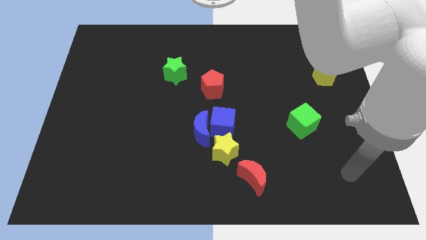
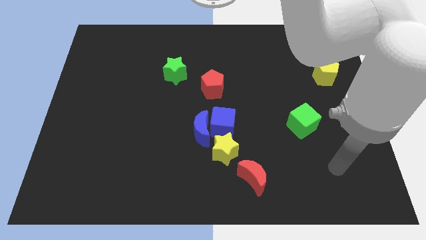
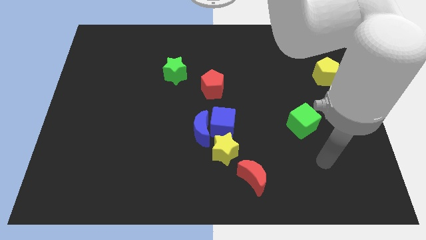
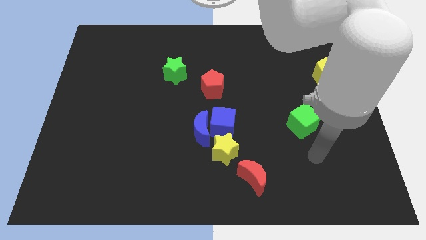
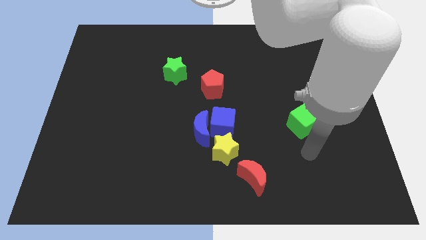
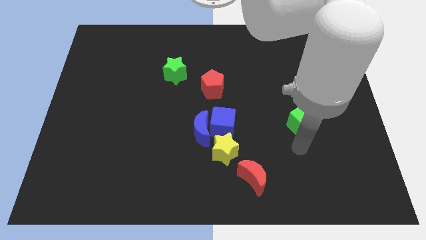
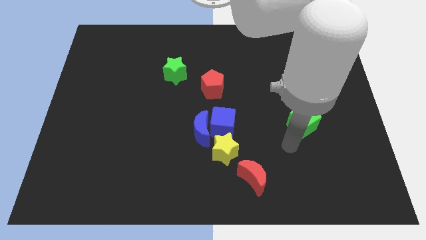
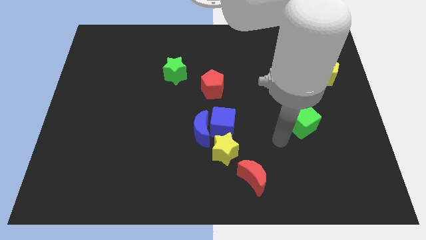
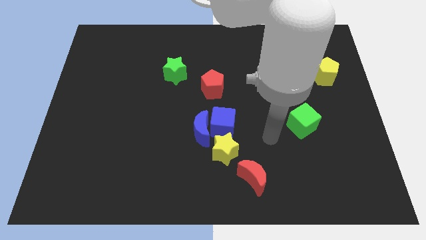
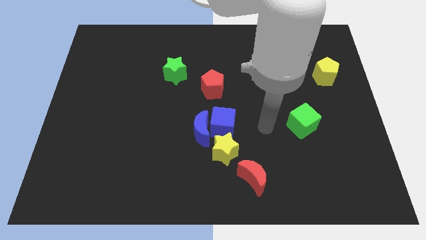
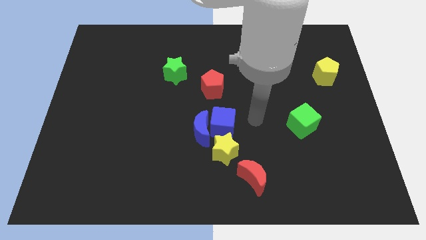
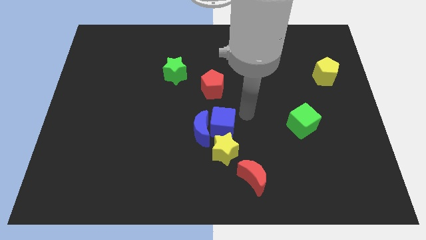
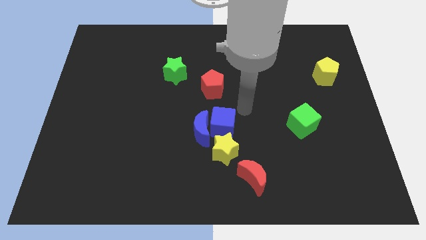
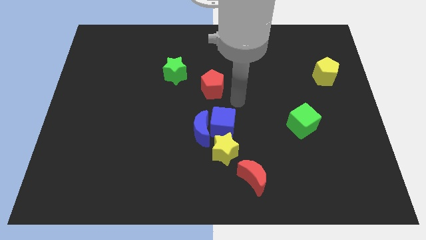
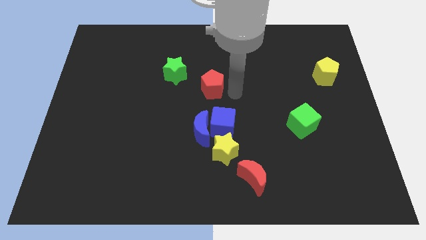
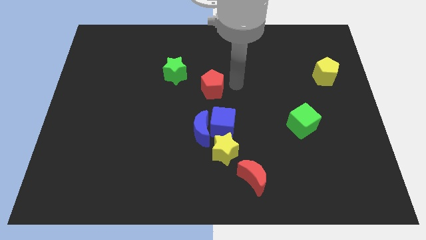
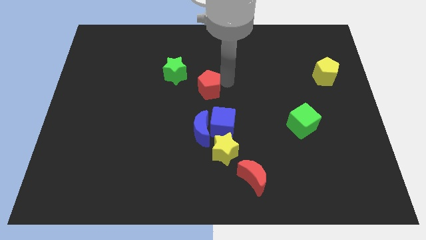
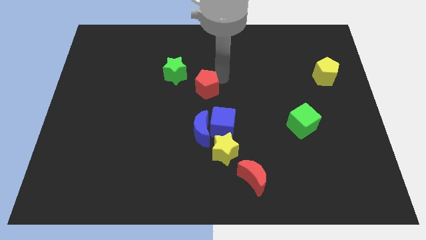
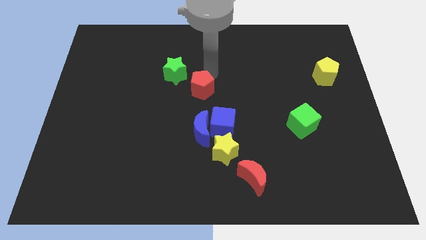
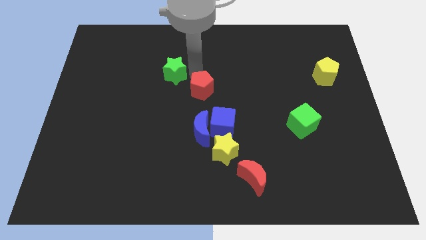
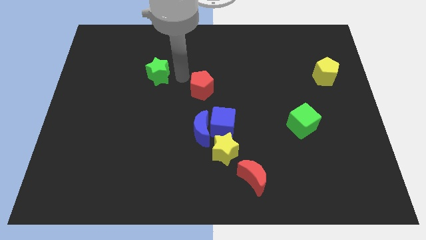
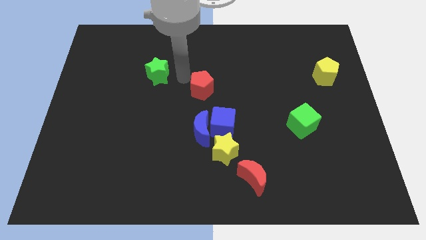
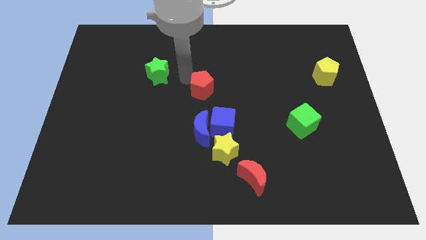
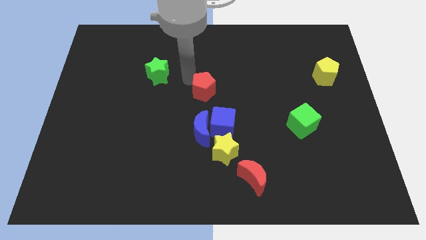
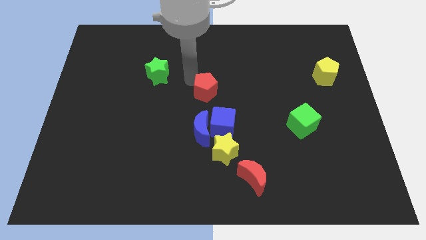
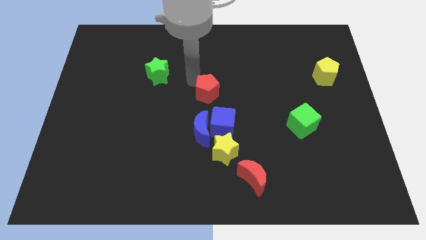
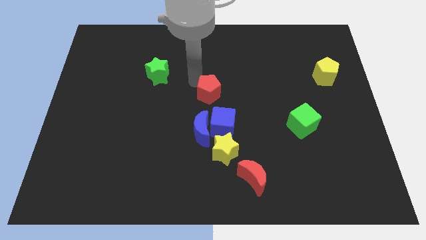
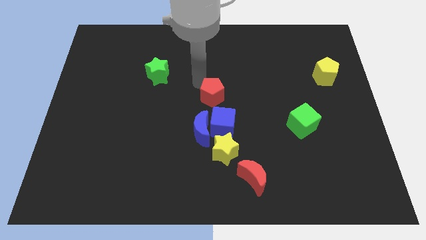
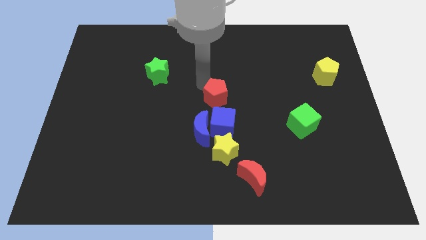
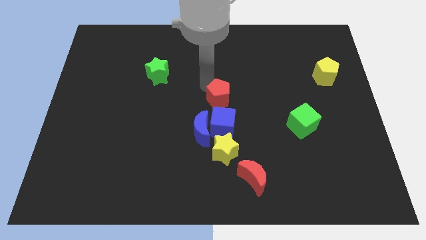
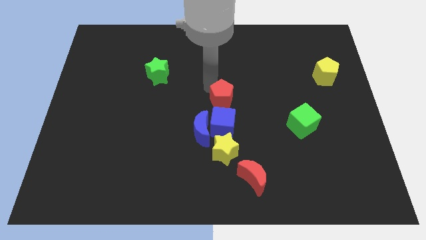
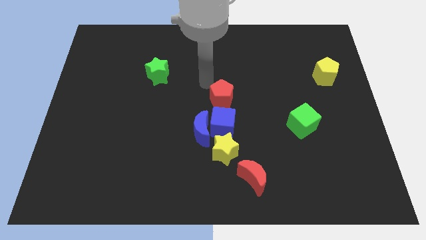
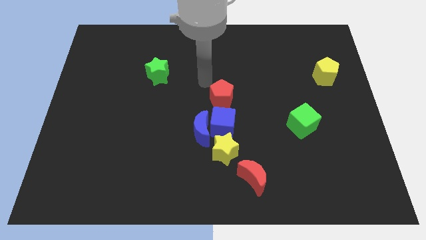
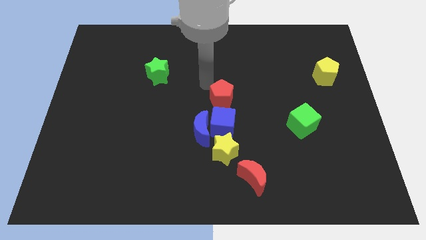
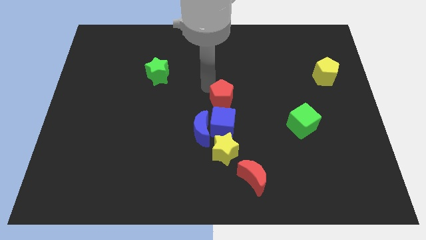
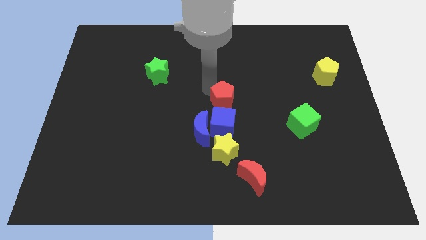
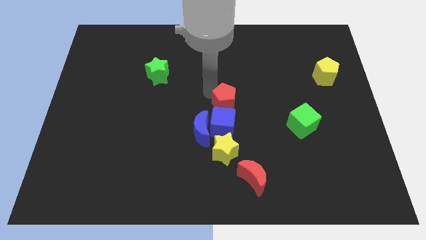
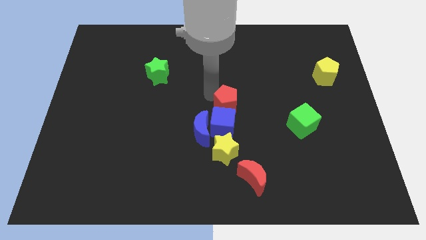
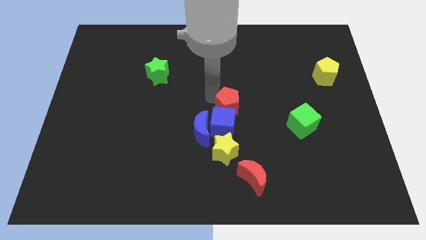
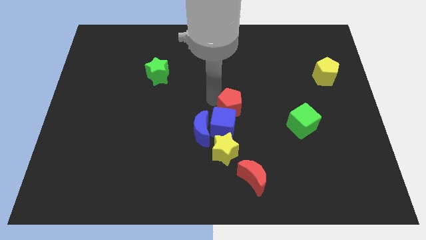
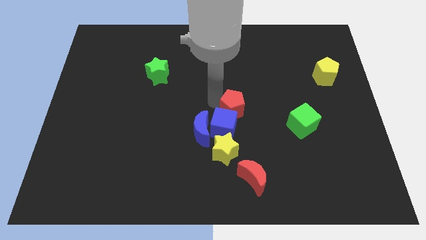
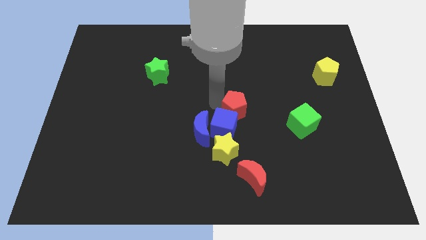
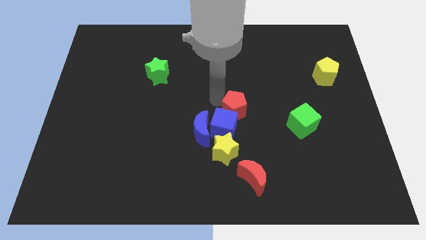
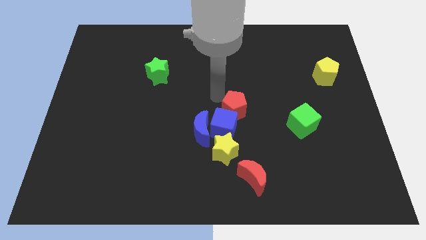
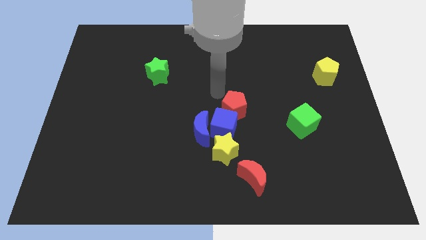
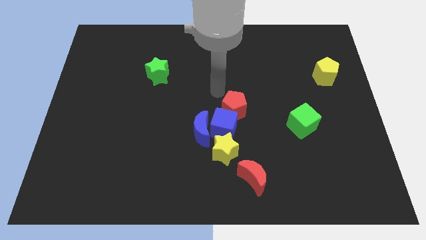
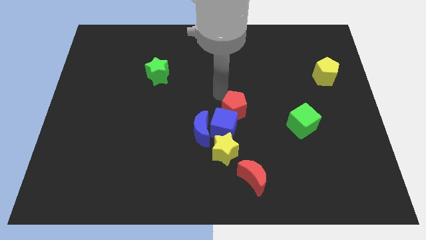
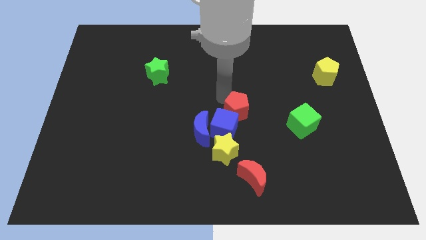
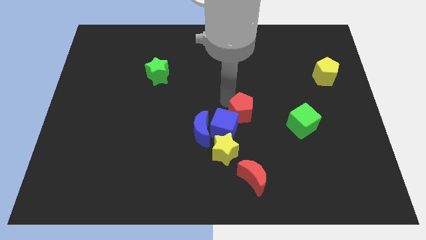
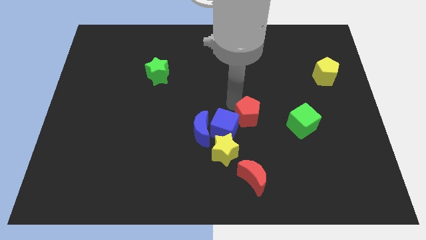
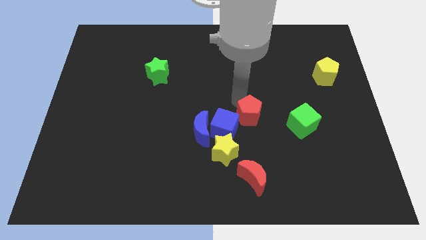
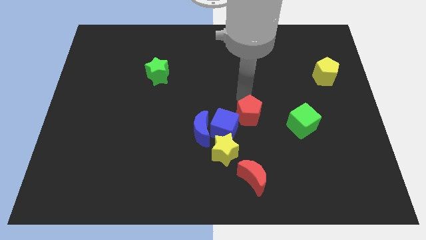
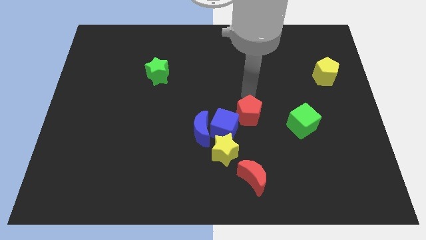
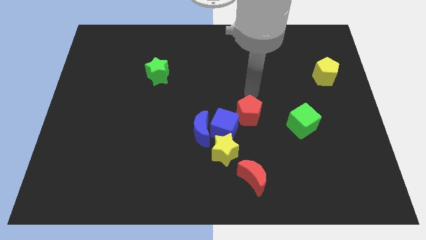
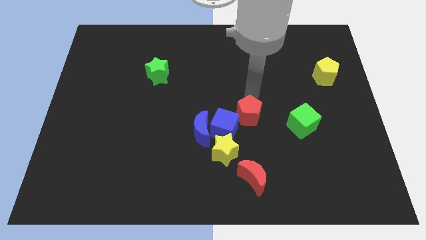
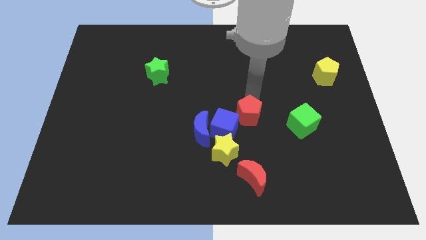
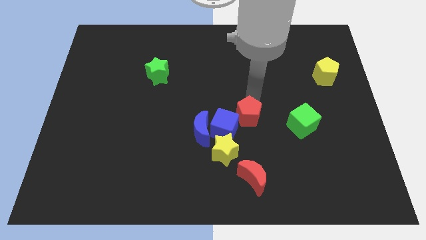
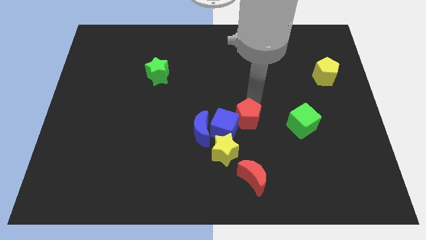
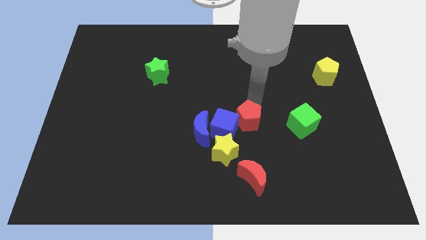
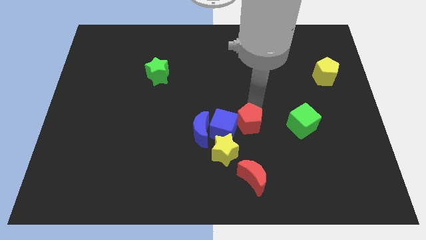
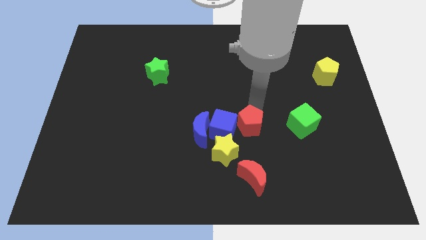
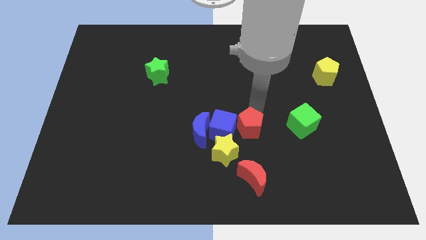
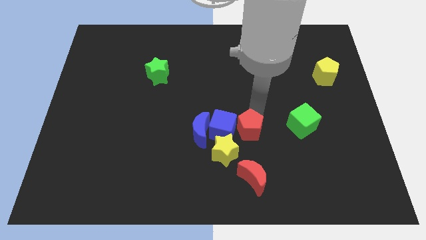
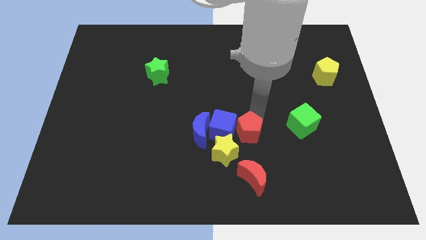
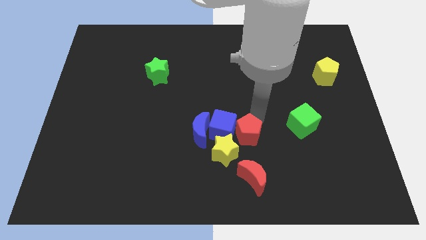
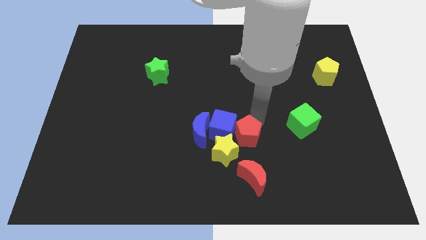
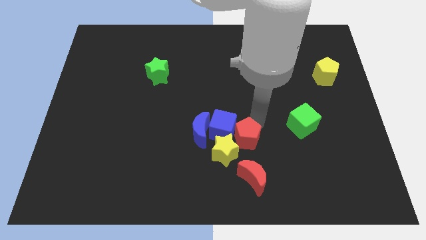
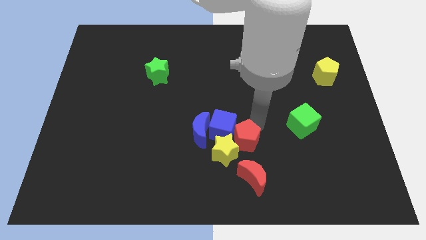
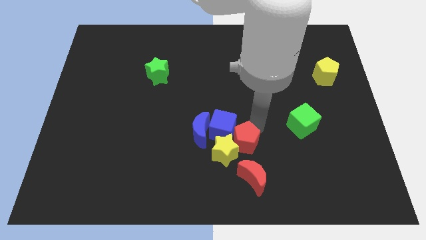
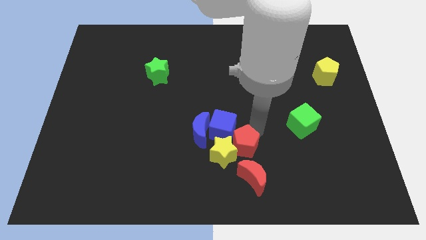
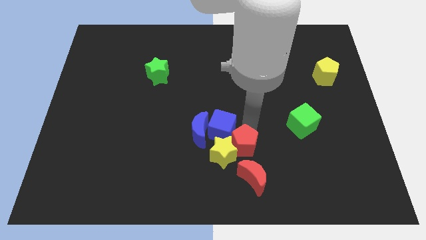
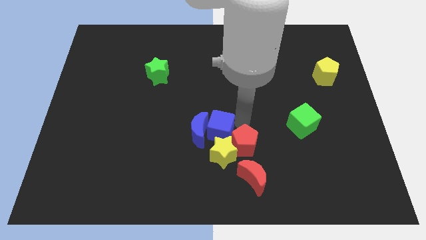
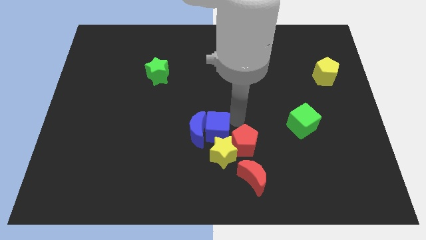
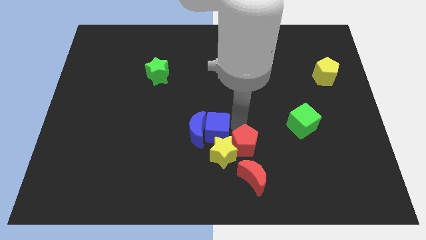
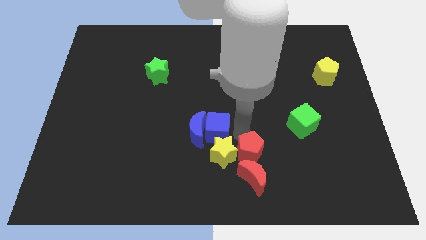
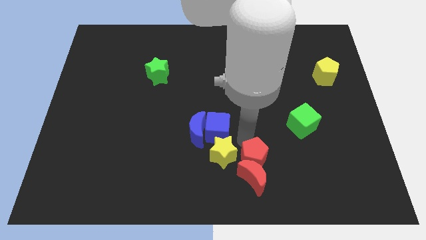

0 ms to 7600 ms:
push the red pentagon close to the red moon
